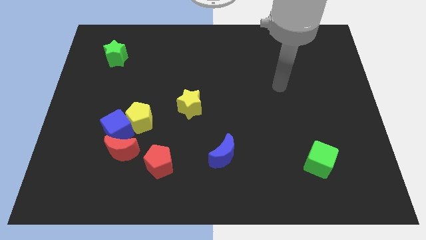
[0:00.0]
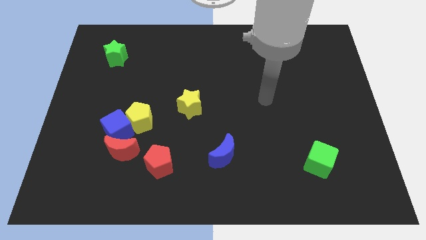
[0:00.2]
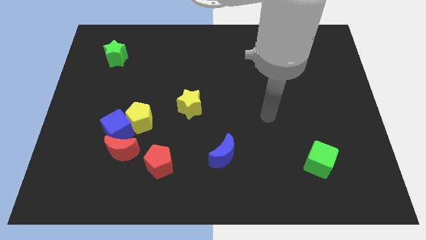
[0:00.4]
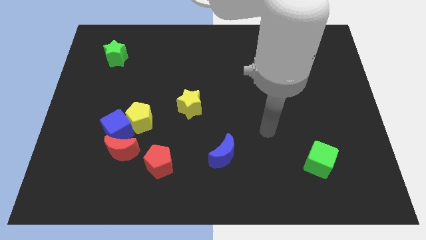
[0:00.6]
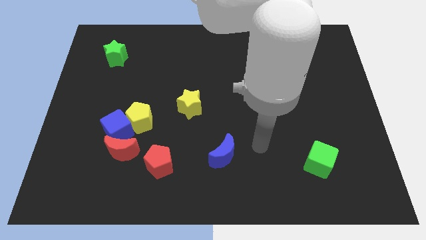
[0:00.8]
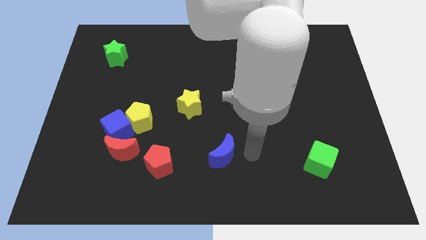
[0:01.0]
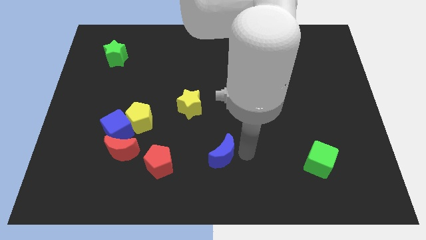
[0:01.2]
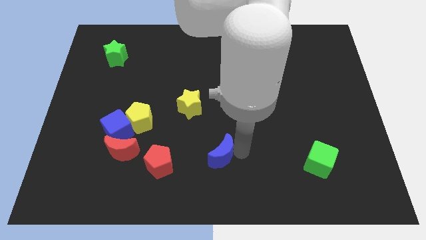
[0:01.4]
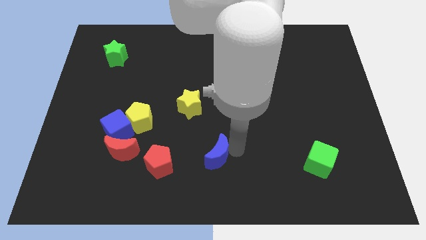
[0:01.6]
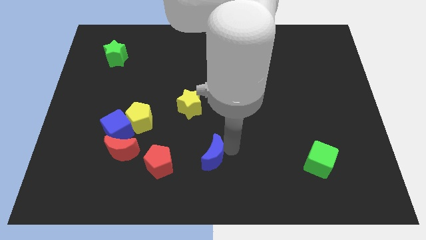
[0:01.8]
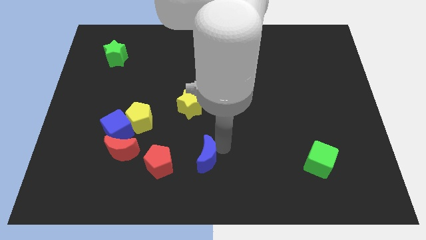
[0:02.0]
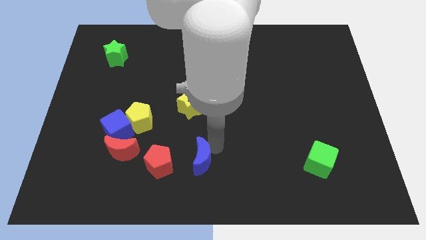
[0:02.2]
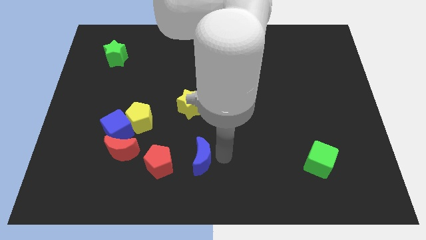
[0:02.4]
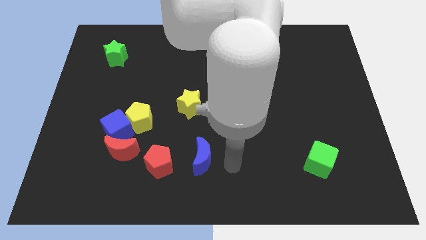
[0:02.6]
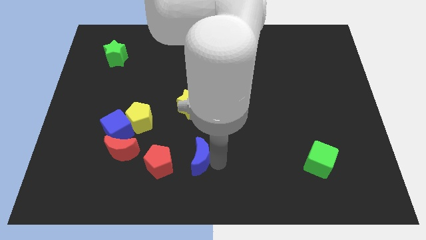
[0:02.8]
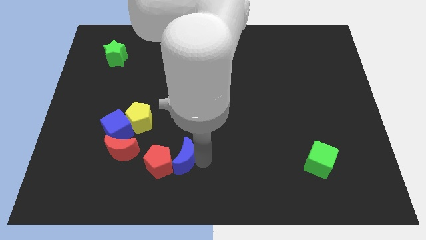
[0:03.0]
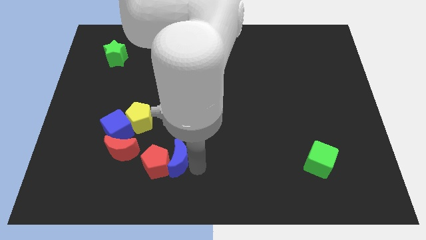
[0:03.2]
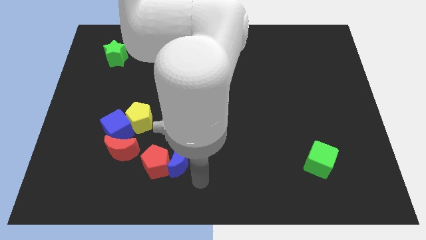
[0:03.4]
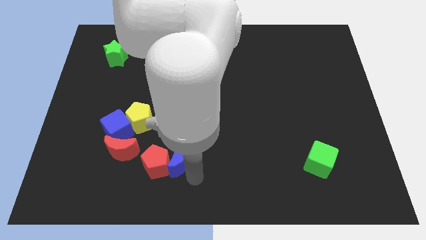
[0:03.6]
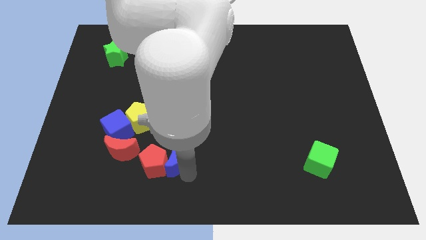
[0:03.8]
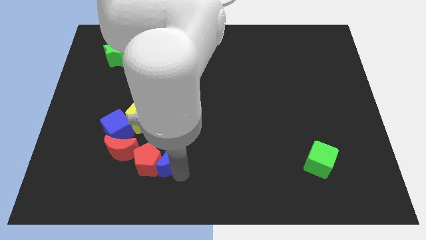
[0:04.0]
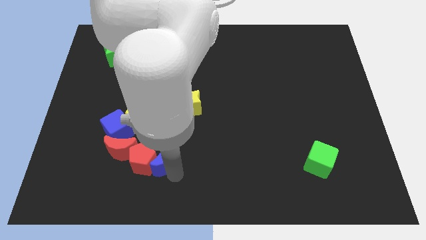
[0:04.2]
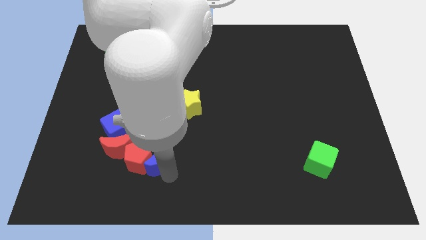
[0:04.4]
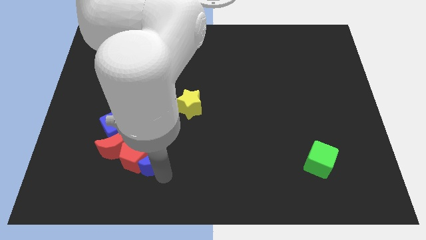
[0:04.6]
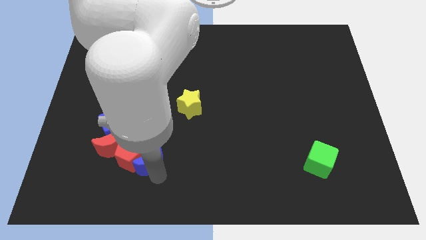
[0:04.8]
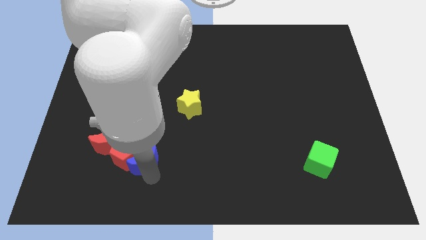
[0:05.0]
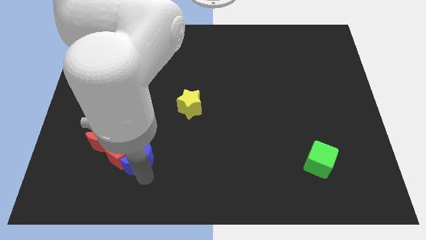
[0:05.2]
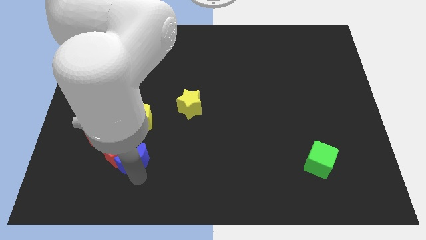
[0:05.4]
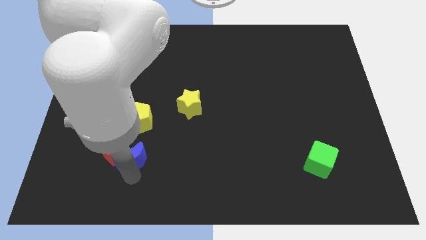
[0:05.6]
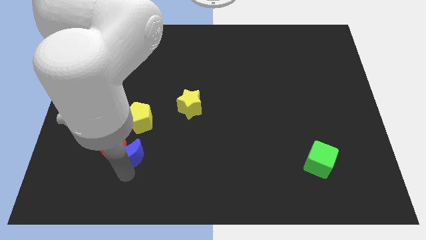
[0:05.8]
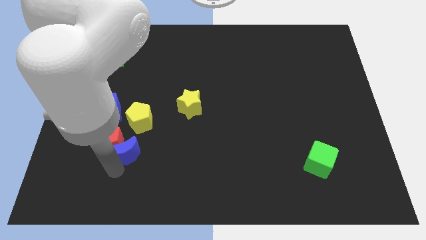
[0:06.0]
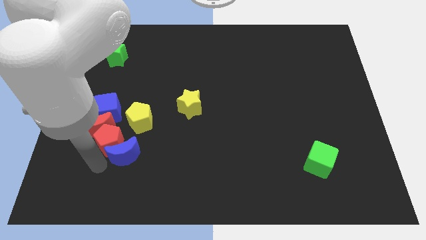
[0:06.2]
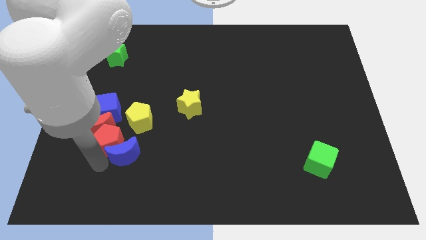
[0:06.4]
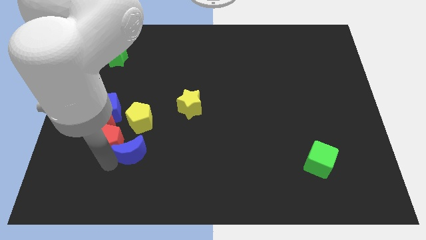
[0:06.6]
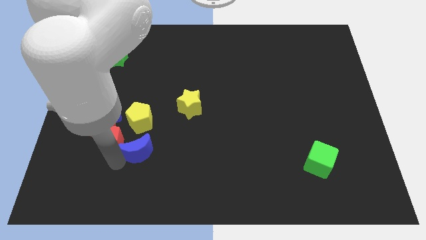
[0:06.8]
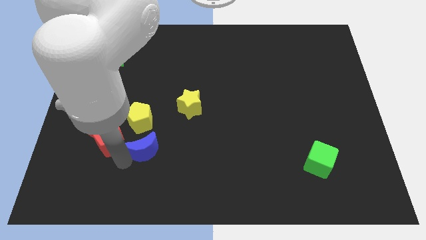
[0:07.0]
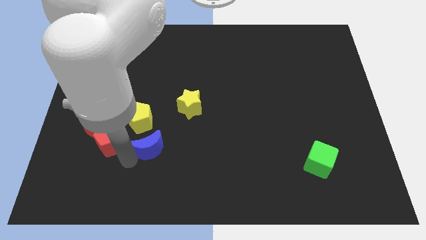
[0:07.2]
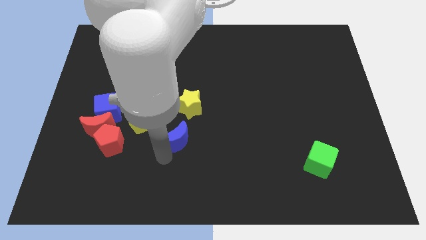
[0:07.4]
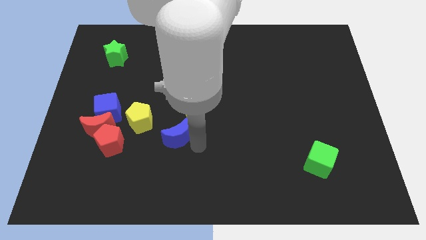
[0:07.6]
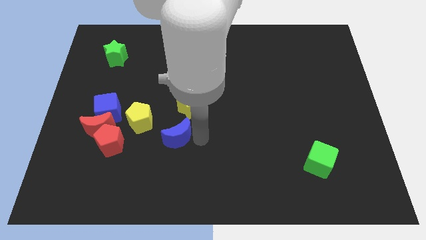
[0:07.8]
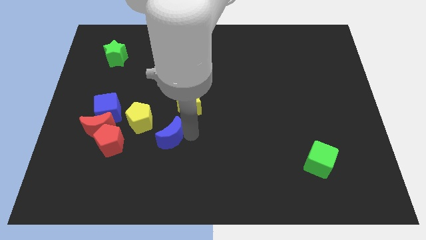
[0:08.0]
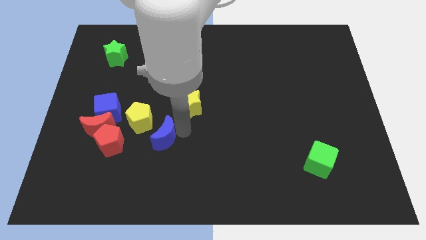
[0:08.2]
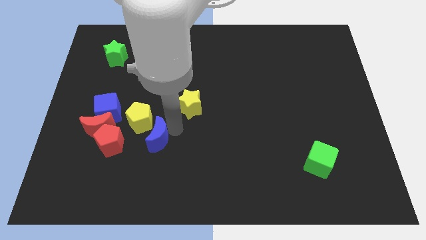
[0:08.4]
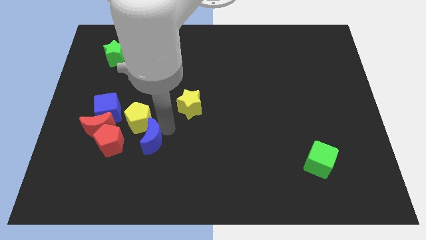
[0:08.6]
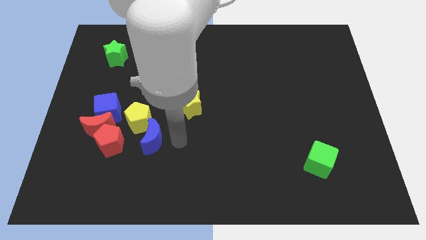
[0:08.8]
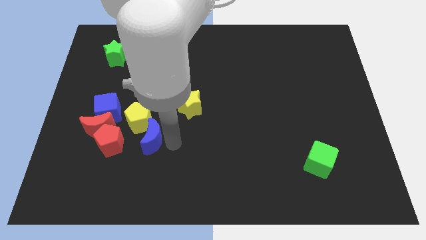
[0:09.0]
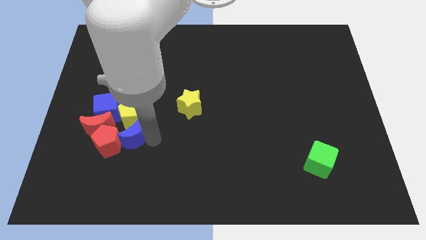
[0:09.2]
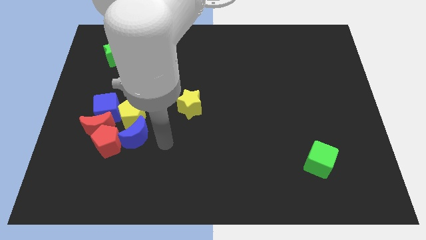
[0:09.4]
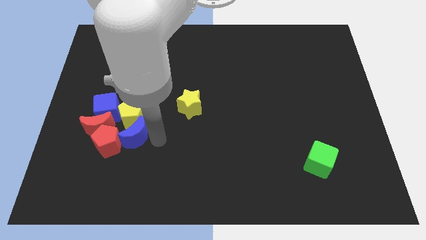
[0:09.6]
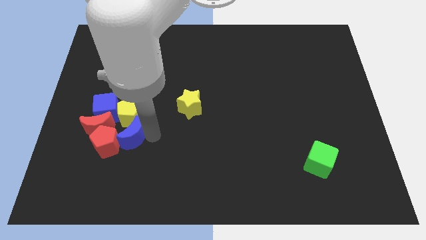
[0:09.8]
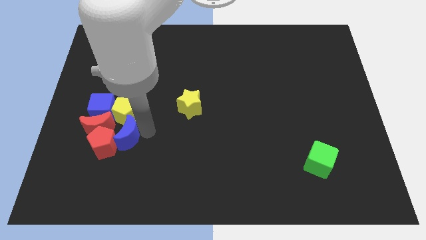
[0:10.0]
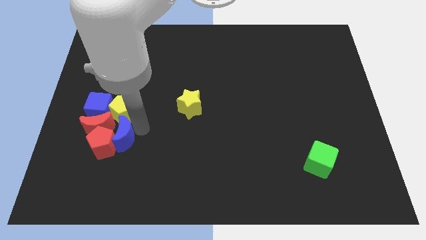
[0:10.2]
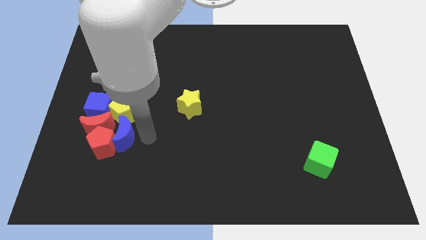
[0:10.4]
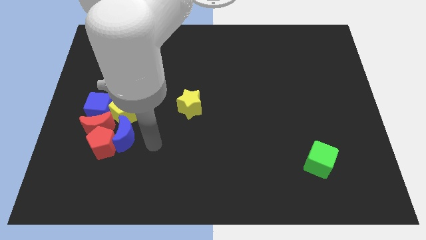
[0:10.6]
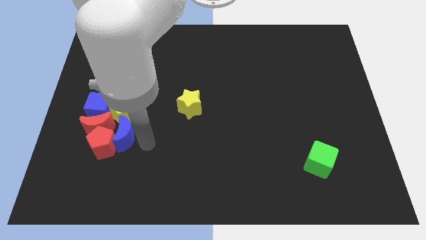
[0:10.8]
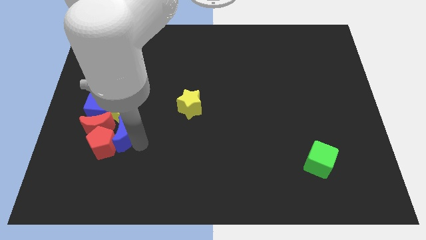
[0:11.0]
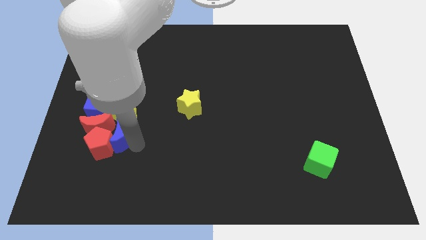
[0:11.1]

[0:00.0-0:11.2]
push the blue moon next to the red moon
